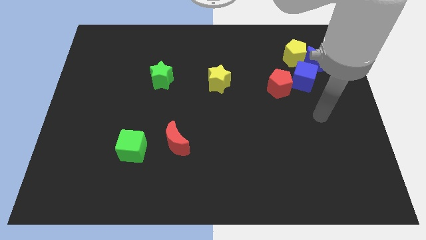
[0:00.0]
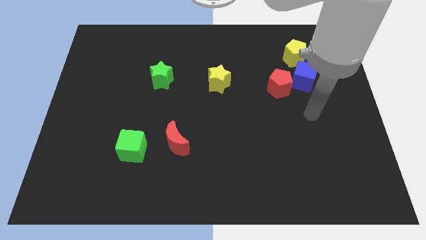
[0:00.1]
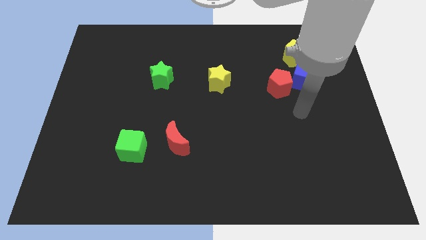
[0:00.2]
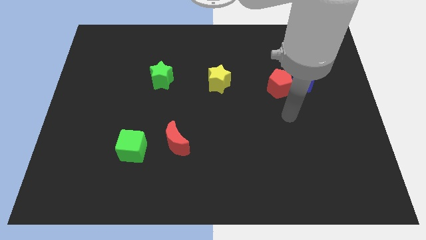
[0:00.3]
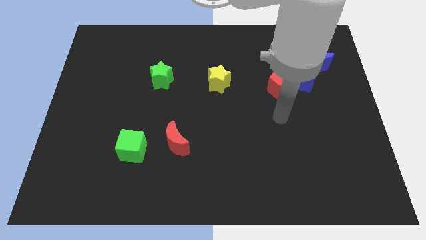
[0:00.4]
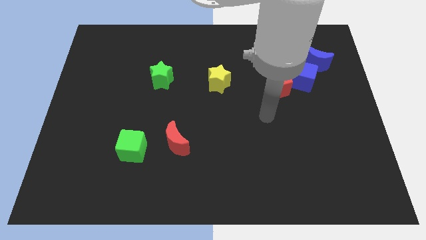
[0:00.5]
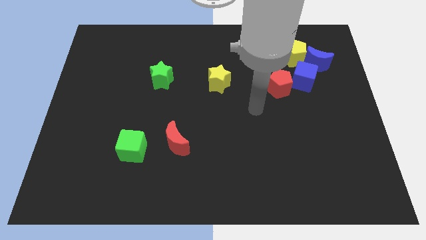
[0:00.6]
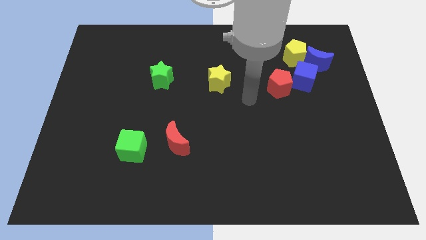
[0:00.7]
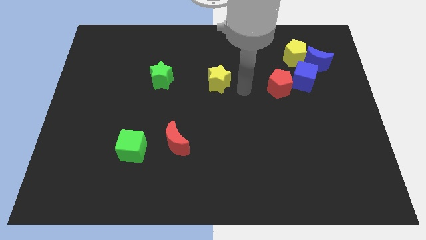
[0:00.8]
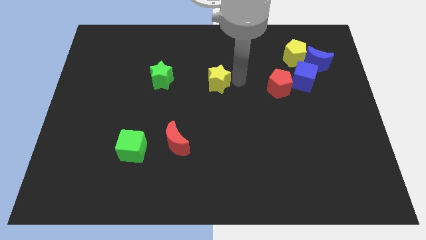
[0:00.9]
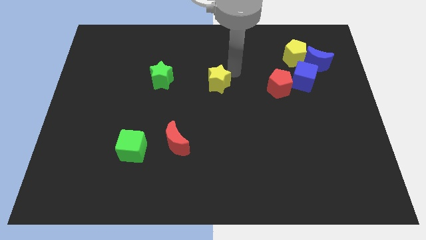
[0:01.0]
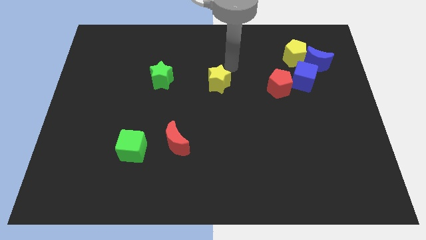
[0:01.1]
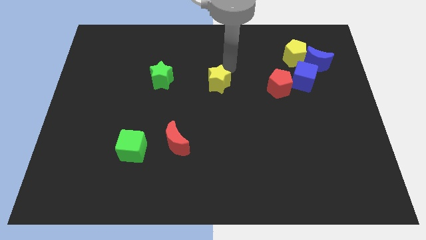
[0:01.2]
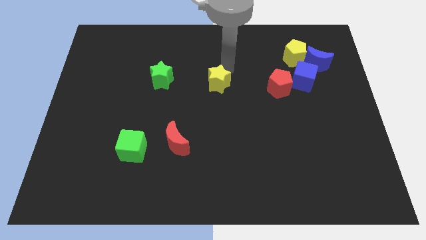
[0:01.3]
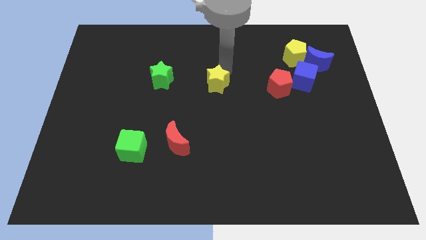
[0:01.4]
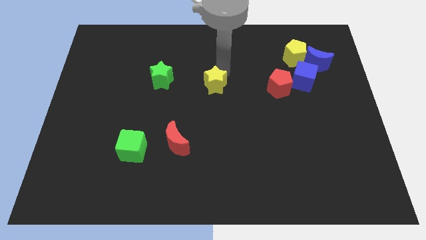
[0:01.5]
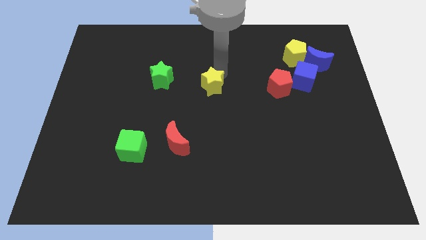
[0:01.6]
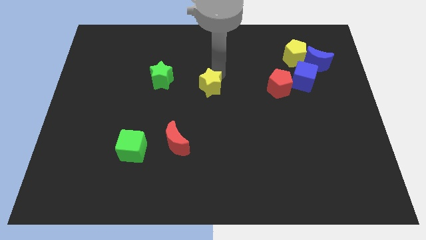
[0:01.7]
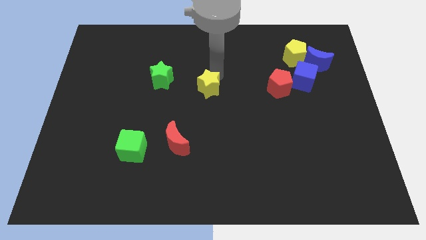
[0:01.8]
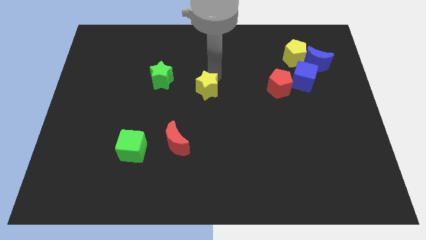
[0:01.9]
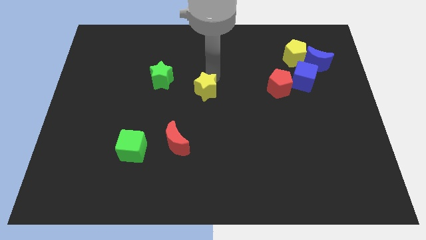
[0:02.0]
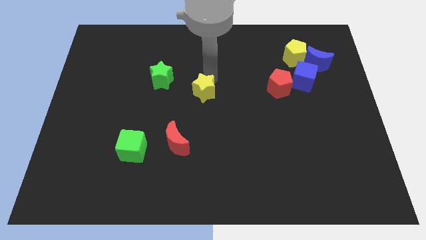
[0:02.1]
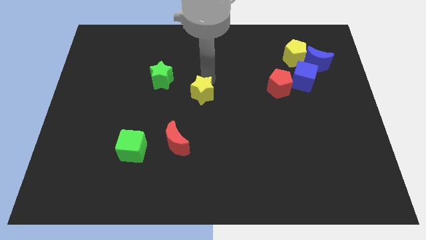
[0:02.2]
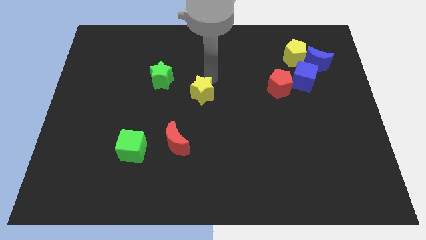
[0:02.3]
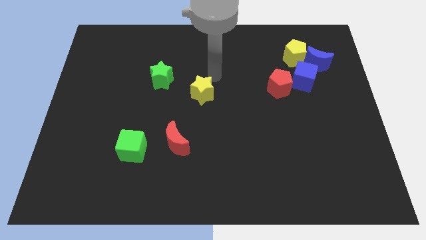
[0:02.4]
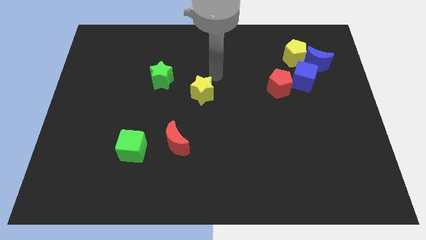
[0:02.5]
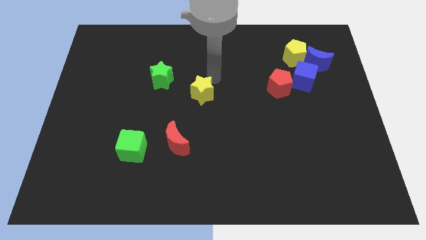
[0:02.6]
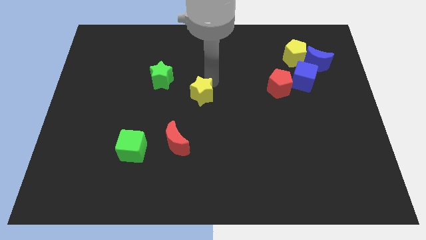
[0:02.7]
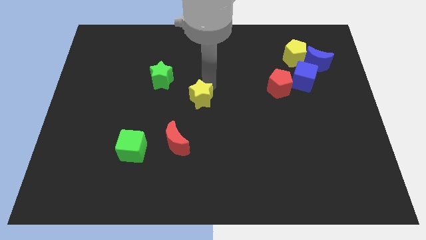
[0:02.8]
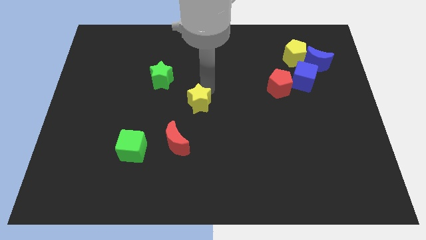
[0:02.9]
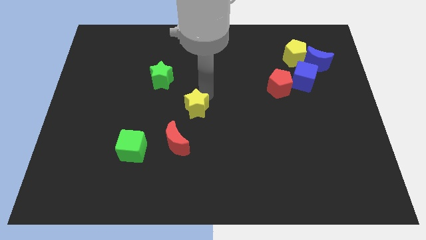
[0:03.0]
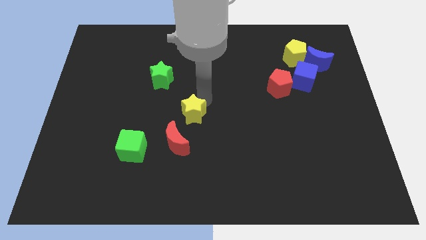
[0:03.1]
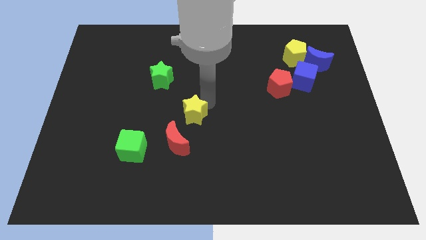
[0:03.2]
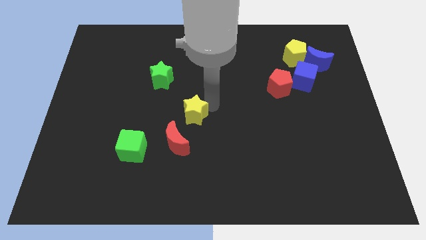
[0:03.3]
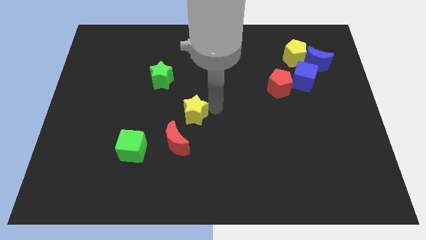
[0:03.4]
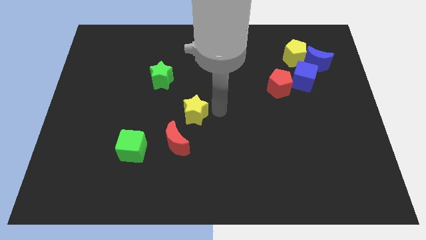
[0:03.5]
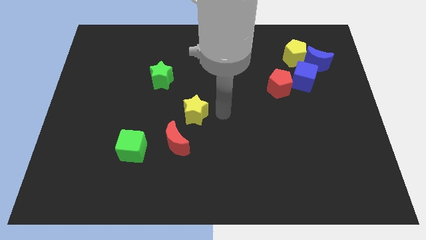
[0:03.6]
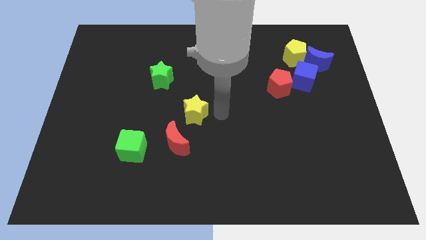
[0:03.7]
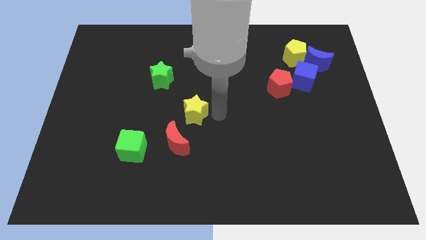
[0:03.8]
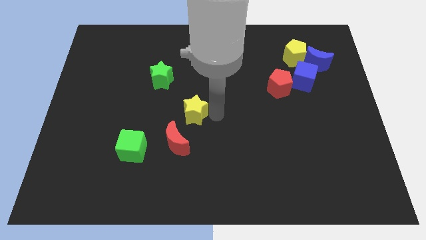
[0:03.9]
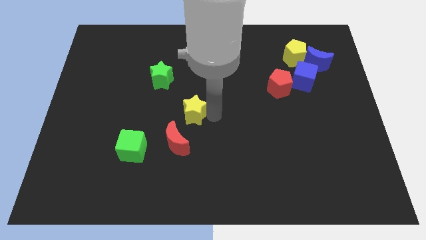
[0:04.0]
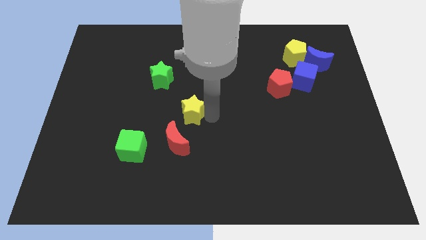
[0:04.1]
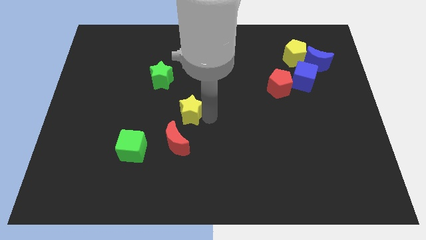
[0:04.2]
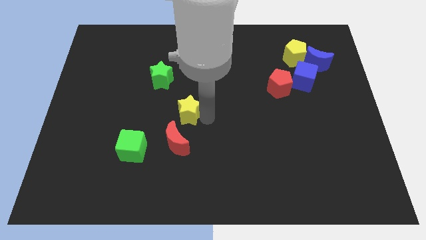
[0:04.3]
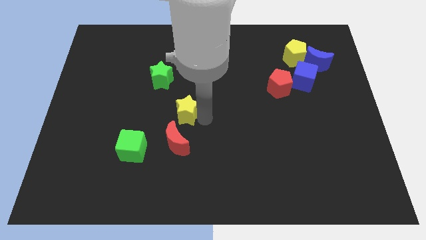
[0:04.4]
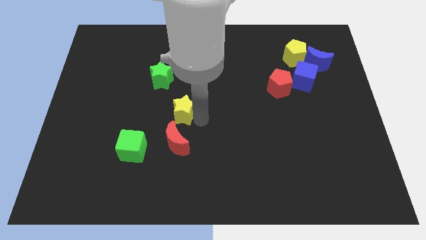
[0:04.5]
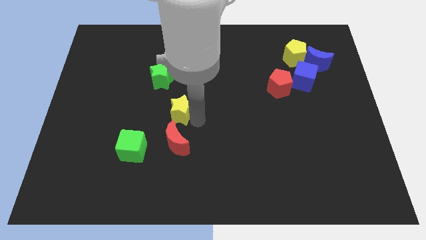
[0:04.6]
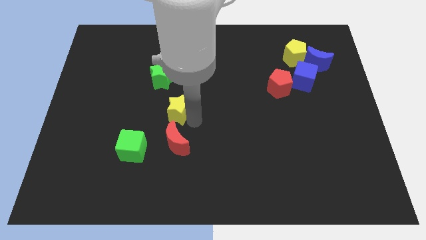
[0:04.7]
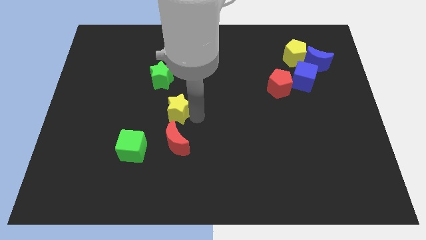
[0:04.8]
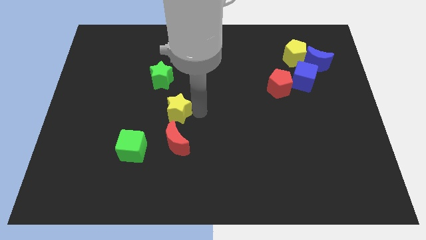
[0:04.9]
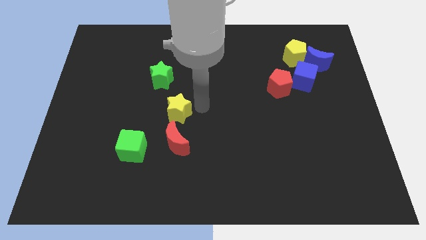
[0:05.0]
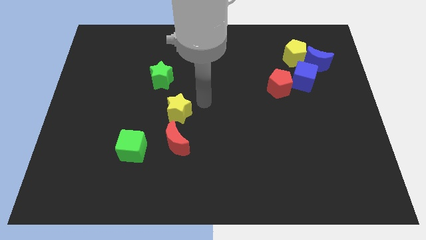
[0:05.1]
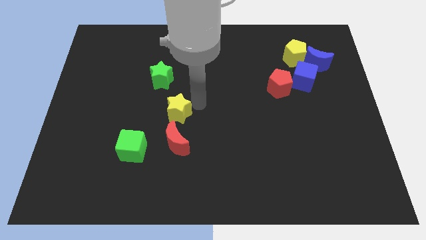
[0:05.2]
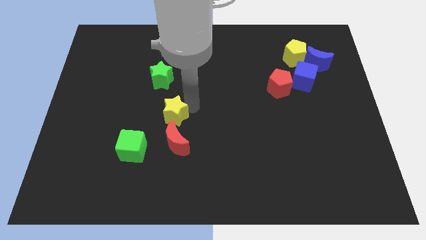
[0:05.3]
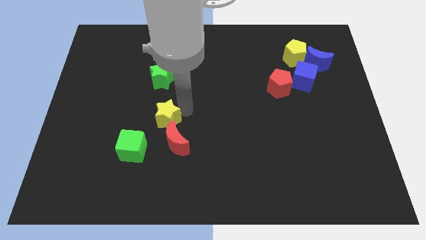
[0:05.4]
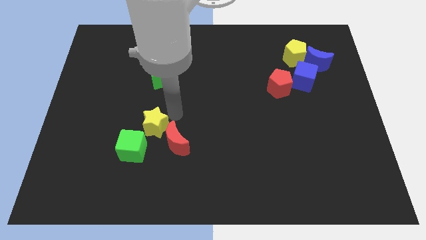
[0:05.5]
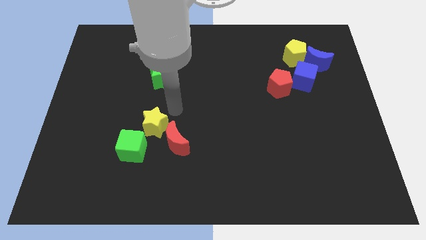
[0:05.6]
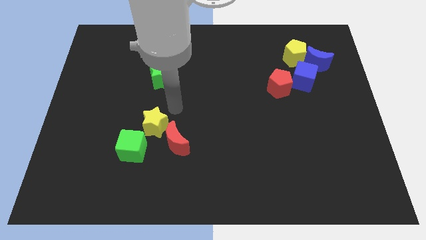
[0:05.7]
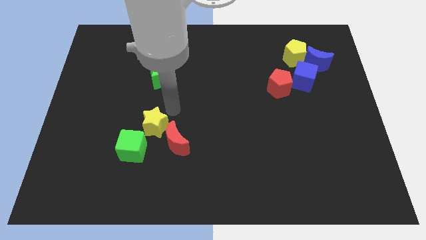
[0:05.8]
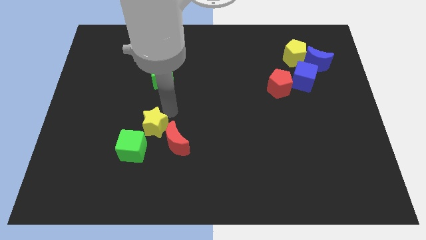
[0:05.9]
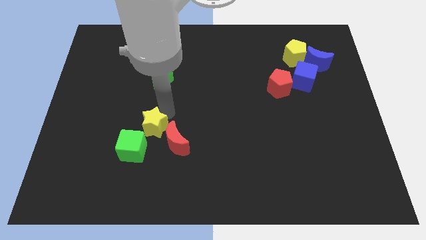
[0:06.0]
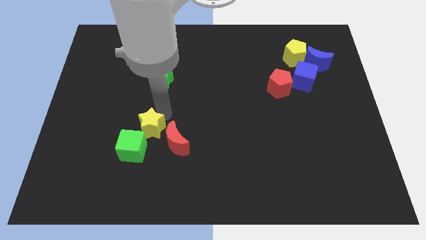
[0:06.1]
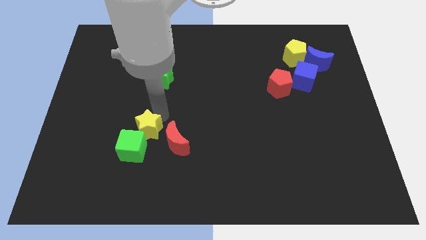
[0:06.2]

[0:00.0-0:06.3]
slide the yellow star towards the green cube

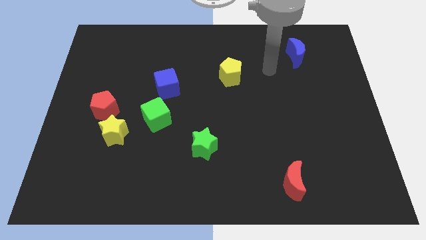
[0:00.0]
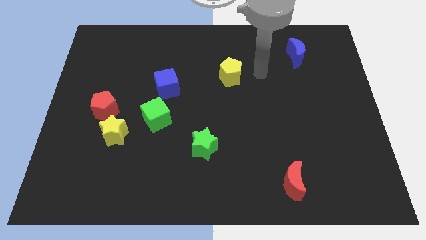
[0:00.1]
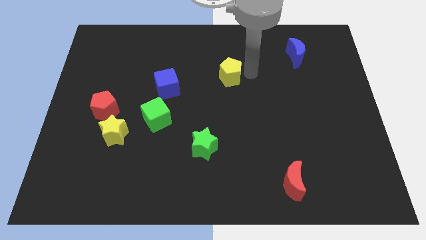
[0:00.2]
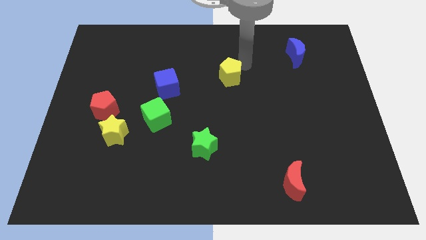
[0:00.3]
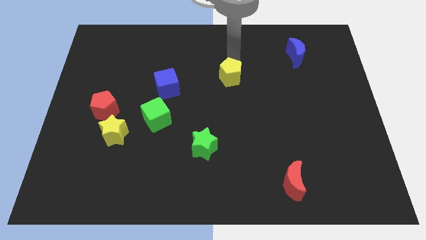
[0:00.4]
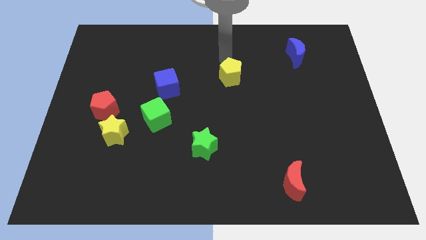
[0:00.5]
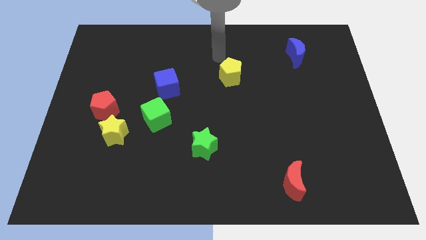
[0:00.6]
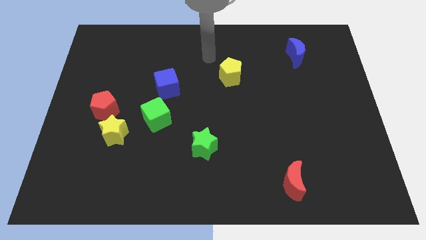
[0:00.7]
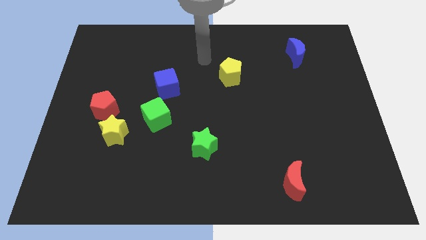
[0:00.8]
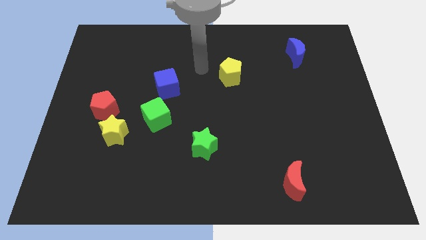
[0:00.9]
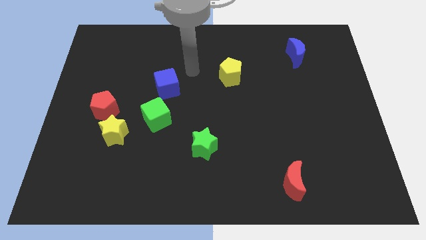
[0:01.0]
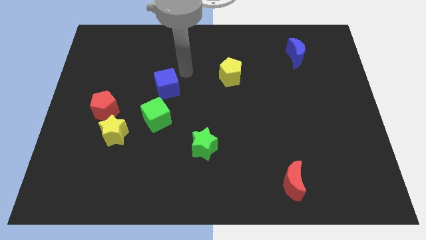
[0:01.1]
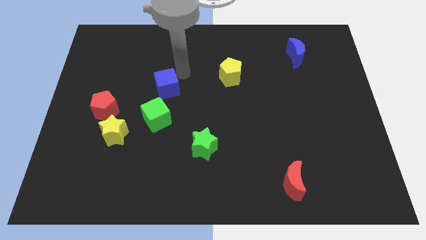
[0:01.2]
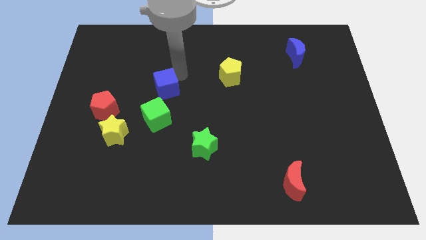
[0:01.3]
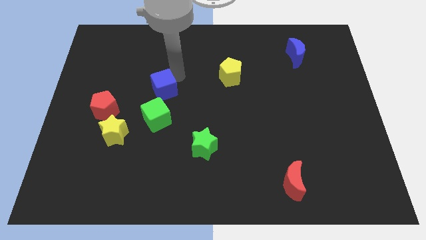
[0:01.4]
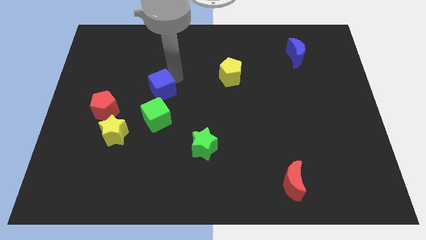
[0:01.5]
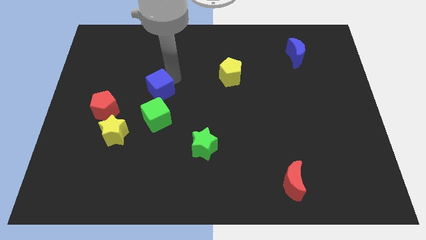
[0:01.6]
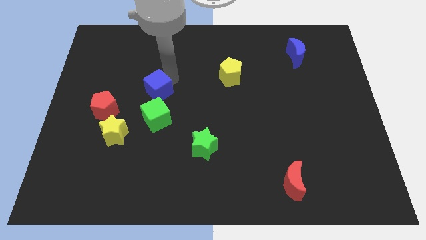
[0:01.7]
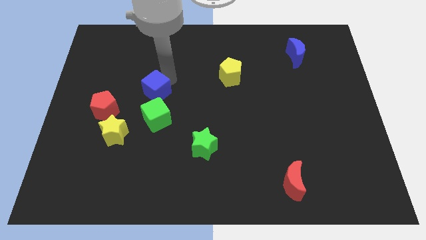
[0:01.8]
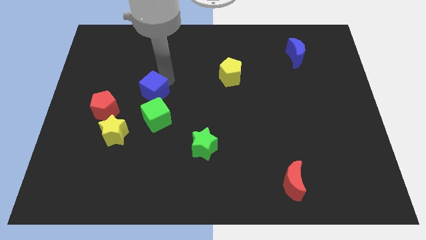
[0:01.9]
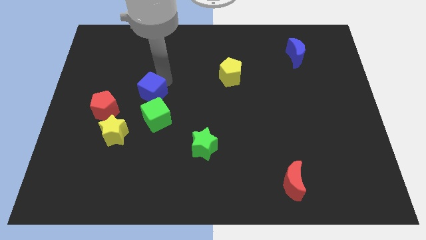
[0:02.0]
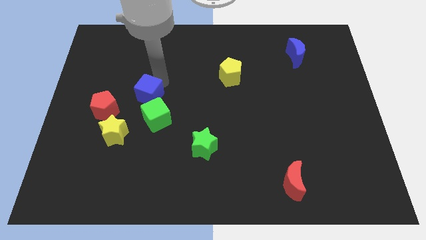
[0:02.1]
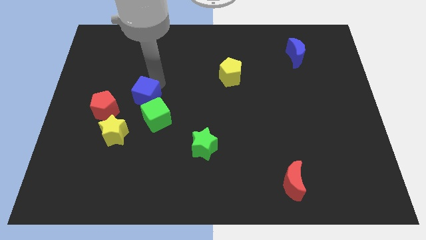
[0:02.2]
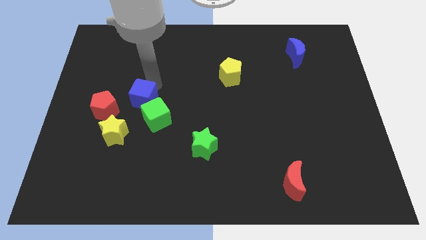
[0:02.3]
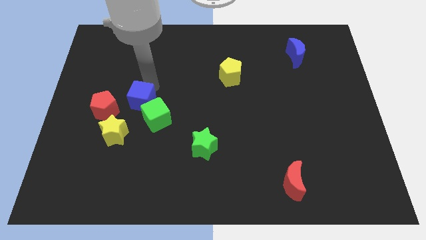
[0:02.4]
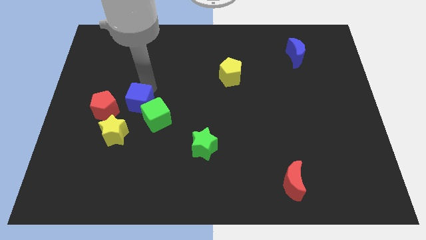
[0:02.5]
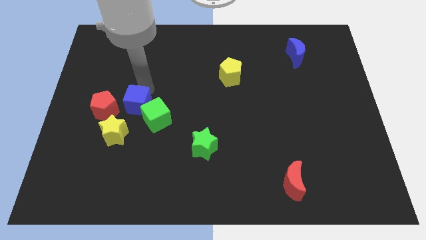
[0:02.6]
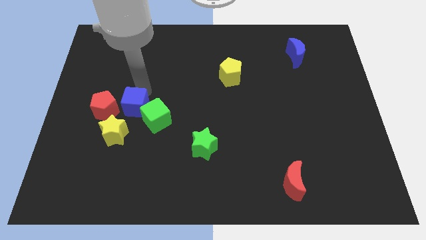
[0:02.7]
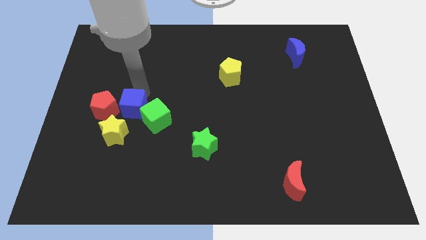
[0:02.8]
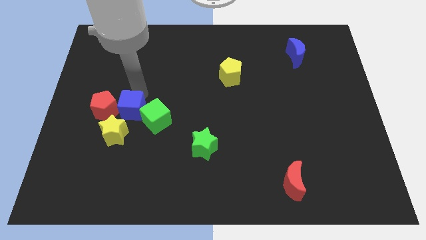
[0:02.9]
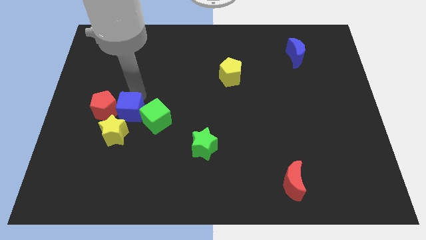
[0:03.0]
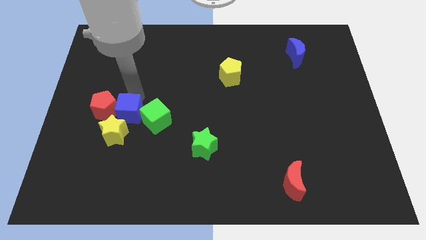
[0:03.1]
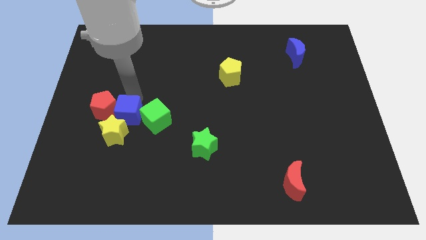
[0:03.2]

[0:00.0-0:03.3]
slide the blue cube towards the yellow star
